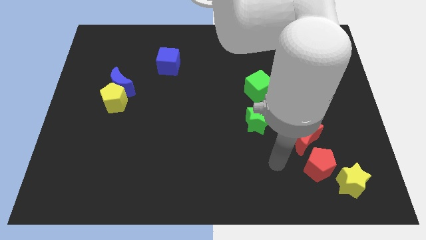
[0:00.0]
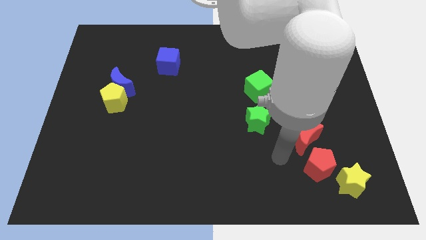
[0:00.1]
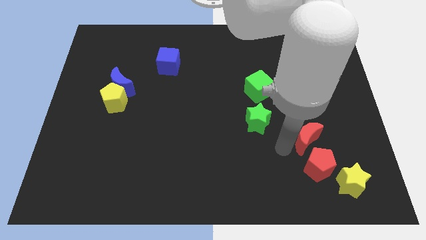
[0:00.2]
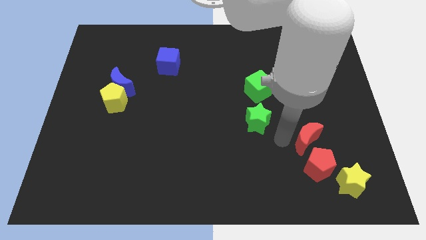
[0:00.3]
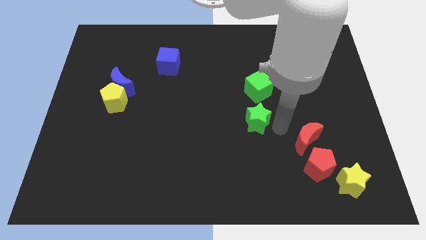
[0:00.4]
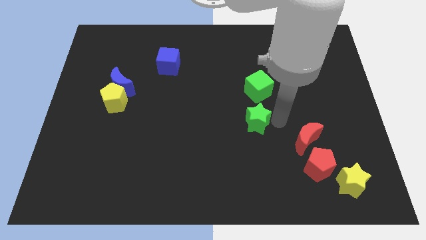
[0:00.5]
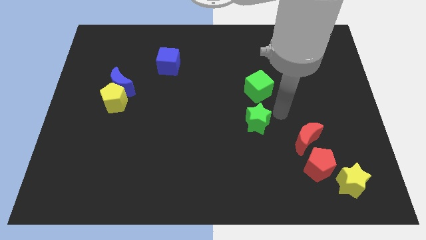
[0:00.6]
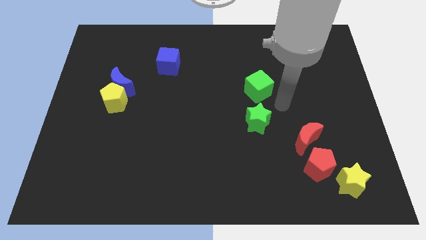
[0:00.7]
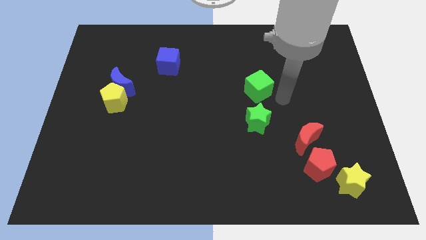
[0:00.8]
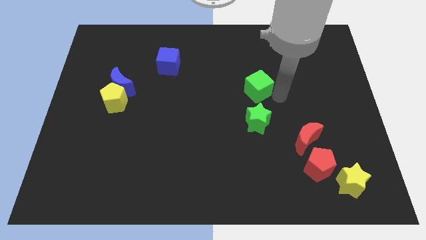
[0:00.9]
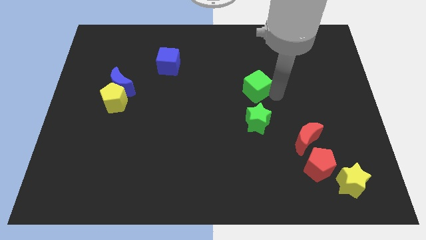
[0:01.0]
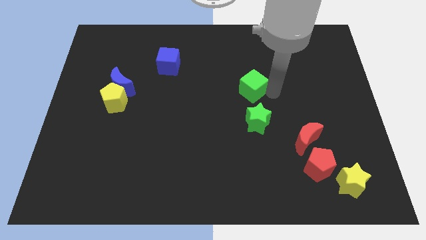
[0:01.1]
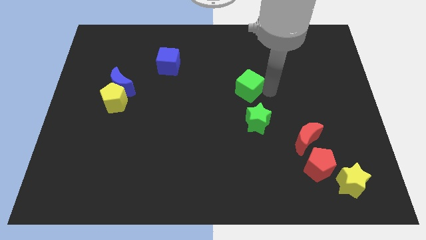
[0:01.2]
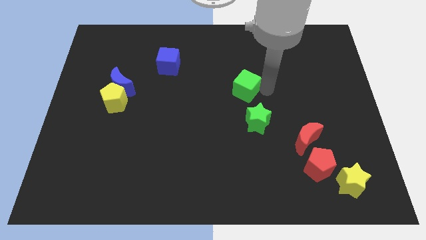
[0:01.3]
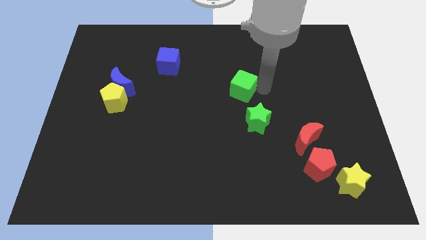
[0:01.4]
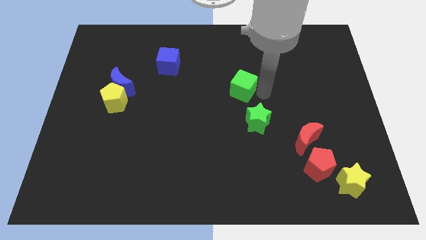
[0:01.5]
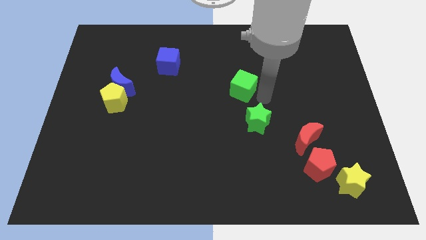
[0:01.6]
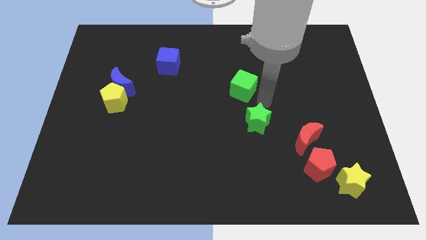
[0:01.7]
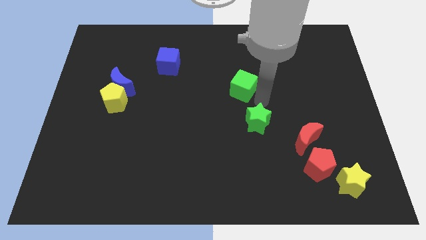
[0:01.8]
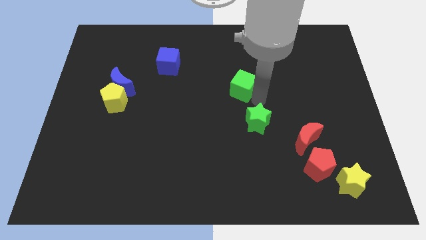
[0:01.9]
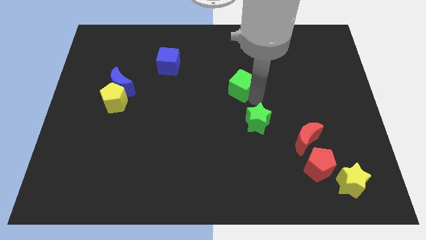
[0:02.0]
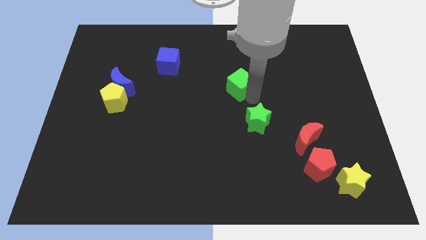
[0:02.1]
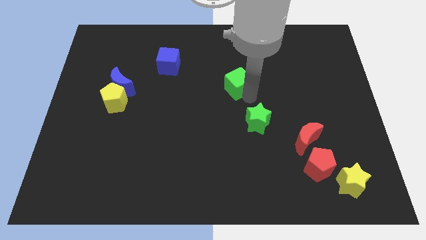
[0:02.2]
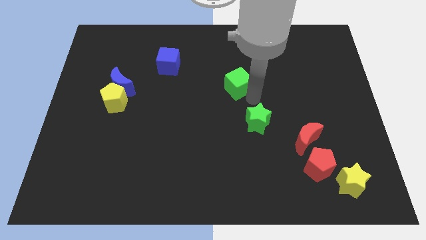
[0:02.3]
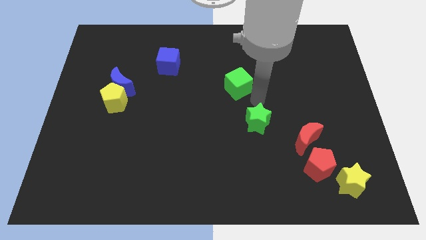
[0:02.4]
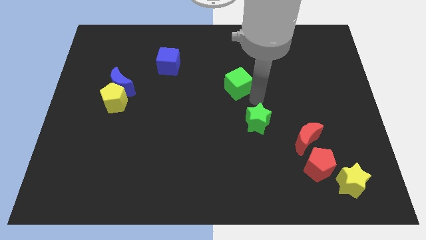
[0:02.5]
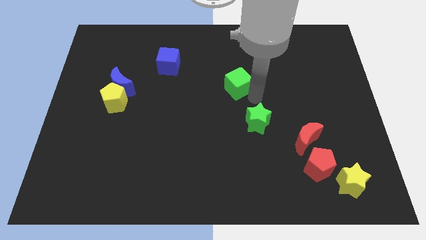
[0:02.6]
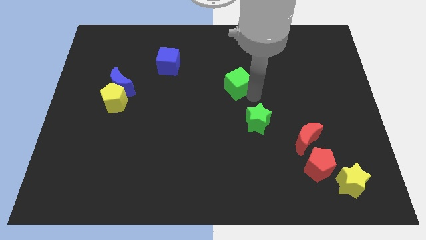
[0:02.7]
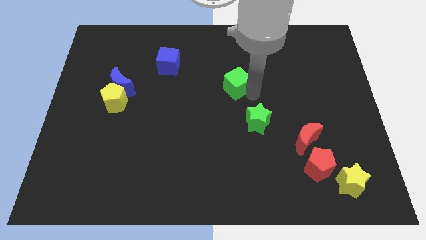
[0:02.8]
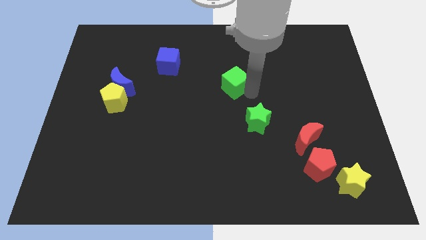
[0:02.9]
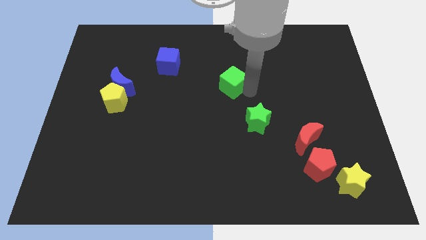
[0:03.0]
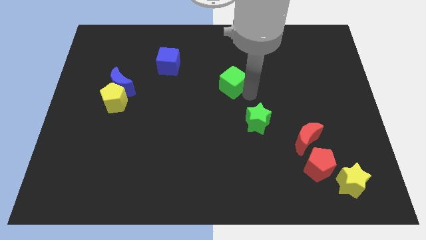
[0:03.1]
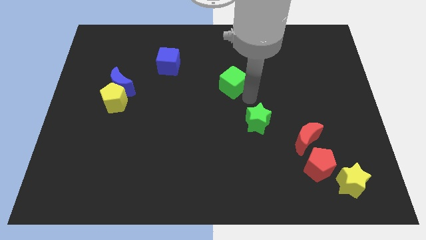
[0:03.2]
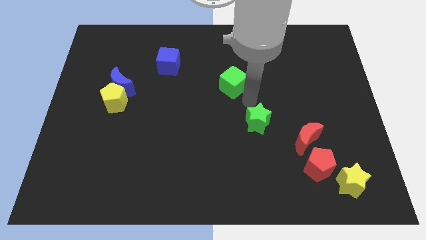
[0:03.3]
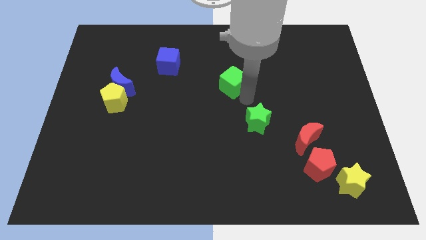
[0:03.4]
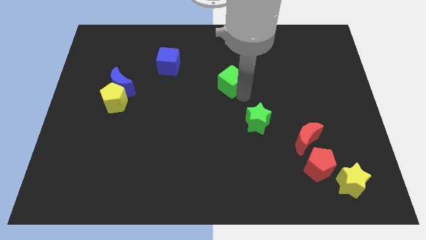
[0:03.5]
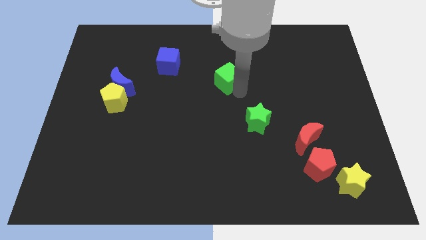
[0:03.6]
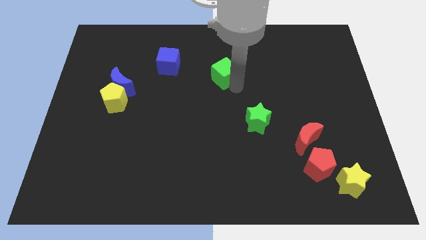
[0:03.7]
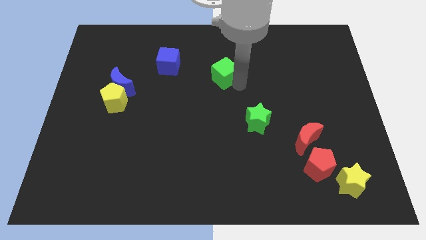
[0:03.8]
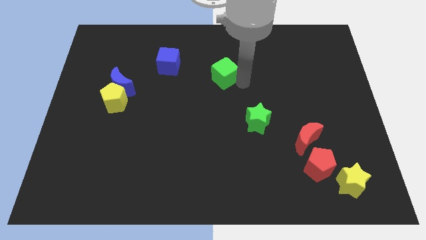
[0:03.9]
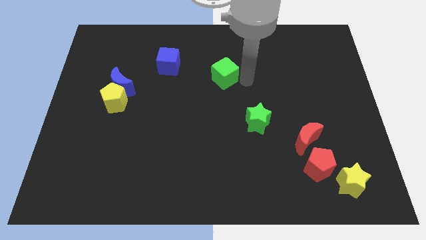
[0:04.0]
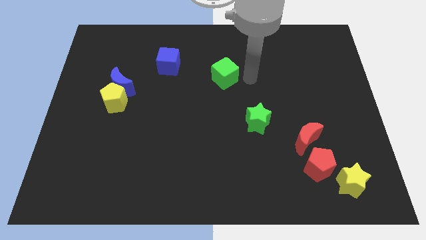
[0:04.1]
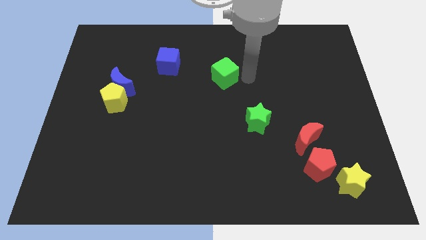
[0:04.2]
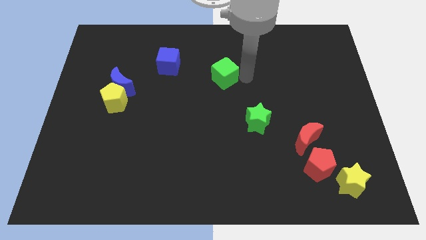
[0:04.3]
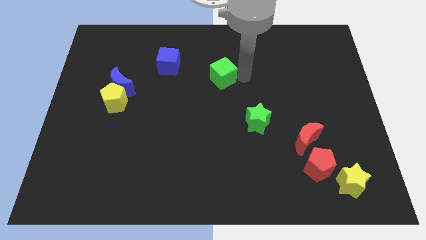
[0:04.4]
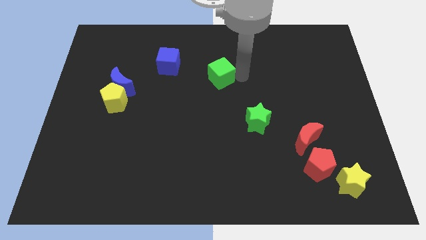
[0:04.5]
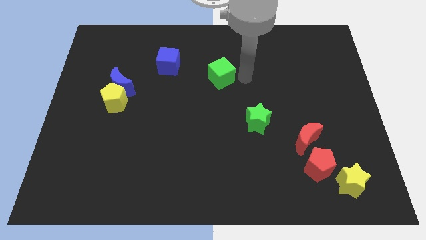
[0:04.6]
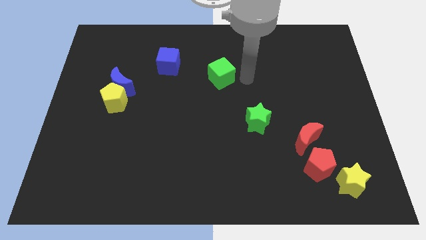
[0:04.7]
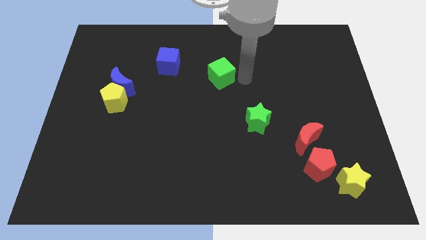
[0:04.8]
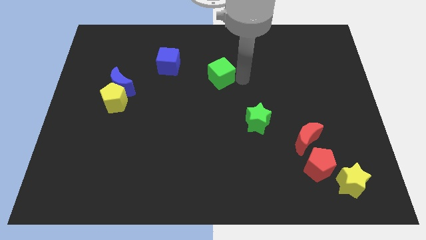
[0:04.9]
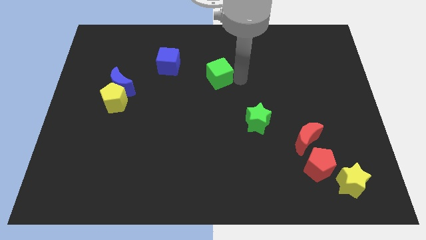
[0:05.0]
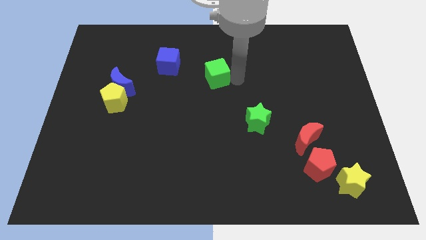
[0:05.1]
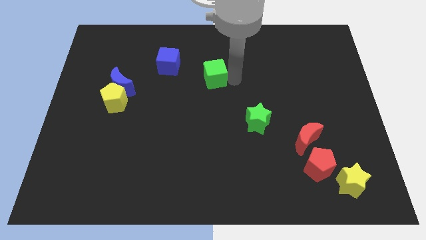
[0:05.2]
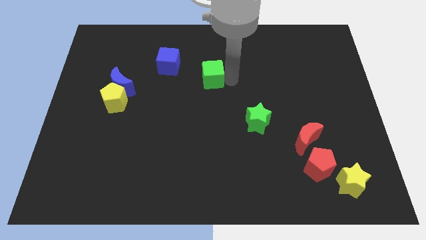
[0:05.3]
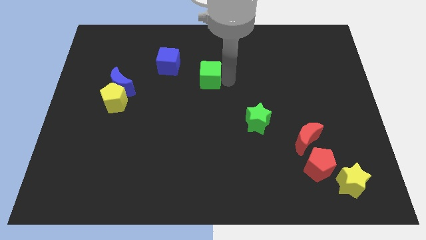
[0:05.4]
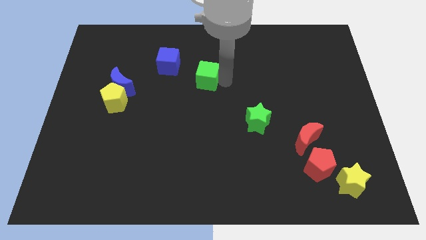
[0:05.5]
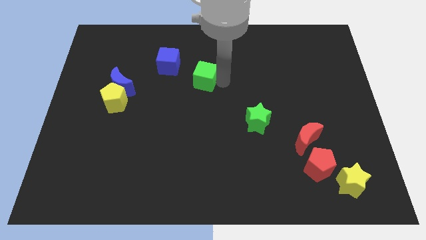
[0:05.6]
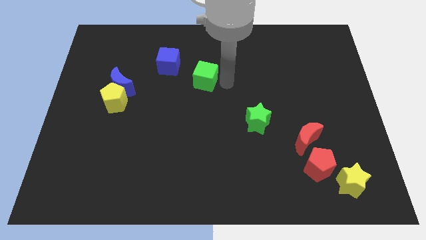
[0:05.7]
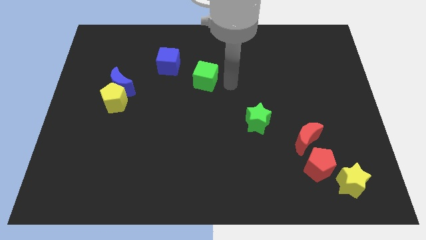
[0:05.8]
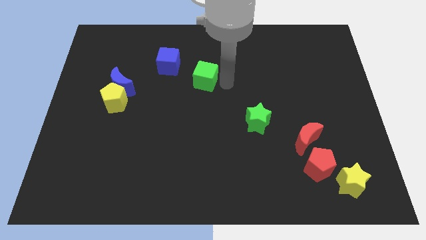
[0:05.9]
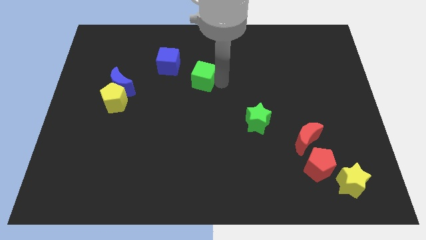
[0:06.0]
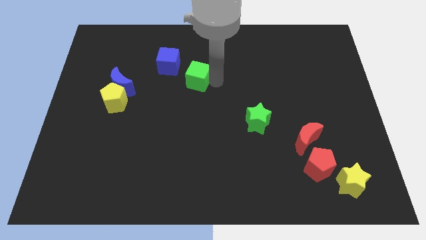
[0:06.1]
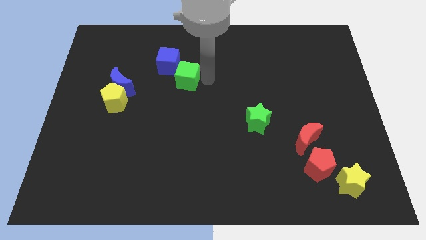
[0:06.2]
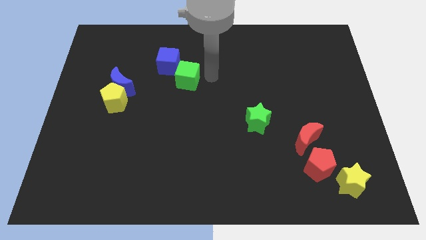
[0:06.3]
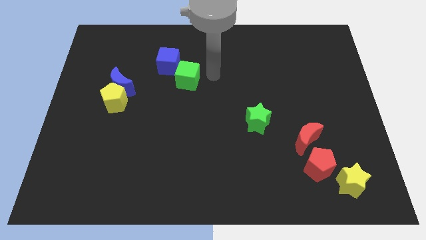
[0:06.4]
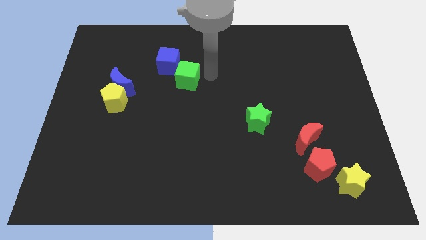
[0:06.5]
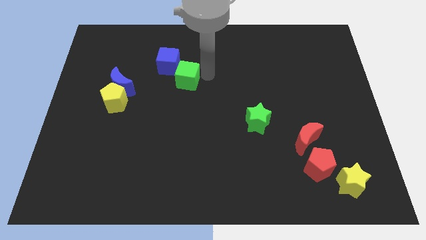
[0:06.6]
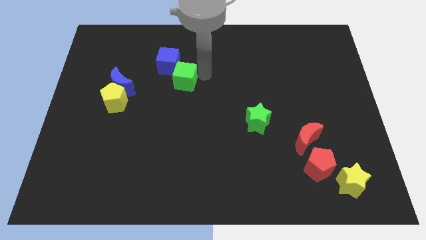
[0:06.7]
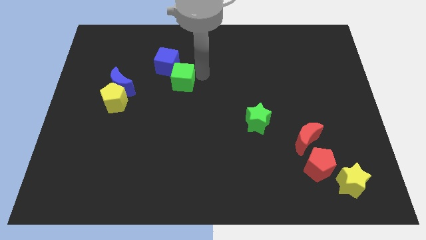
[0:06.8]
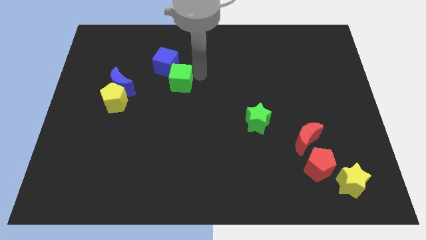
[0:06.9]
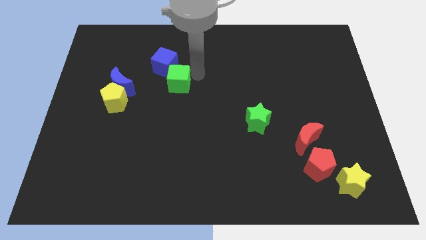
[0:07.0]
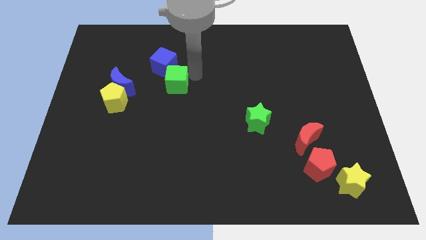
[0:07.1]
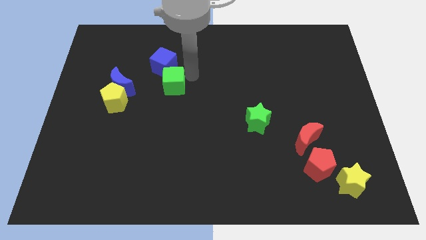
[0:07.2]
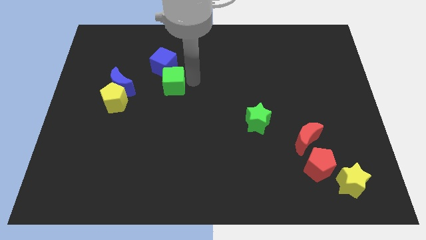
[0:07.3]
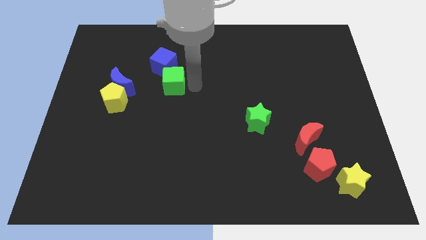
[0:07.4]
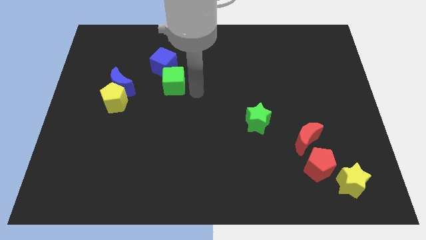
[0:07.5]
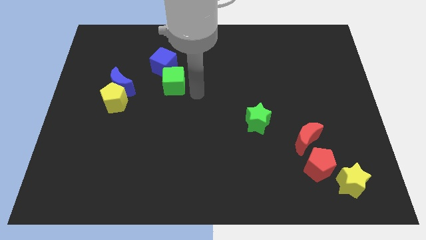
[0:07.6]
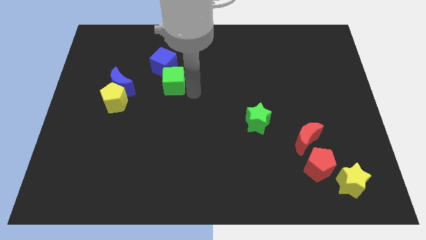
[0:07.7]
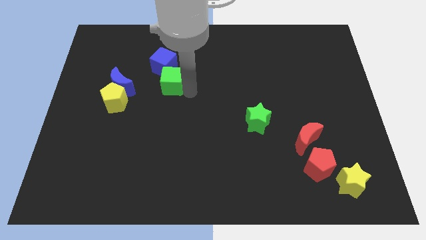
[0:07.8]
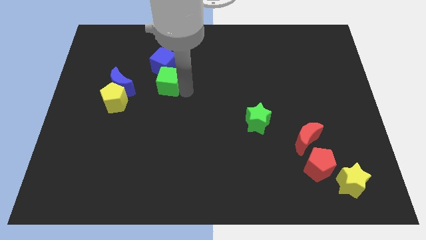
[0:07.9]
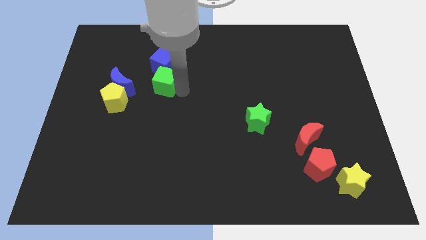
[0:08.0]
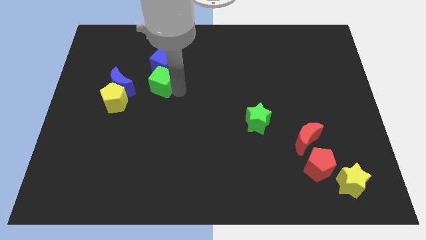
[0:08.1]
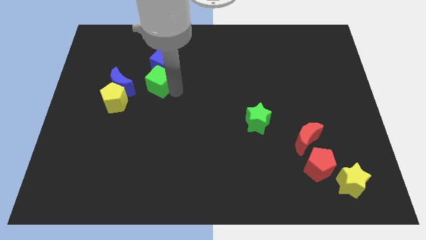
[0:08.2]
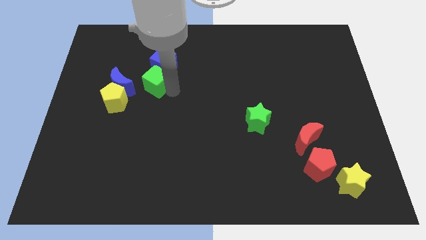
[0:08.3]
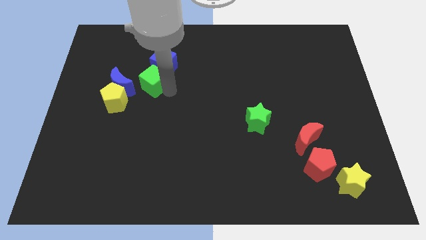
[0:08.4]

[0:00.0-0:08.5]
push the green cube to the top right of the blue moon
